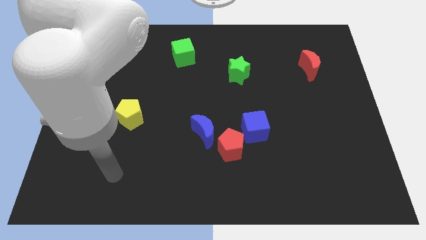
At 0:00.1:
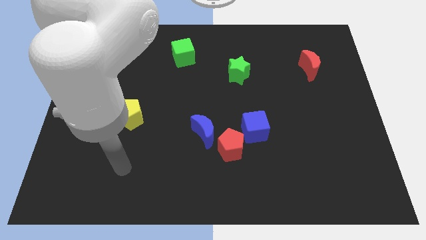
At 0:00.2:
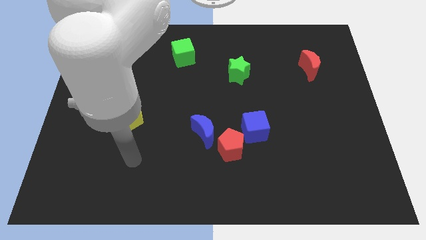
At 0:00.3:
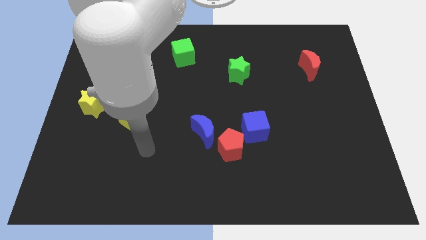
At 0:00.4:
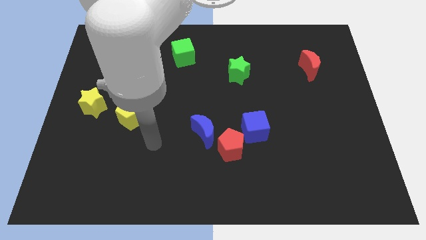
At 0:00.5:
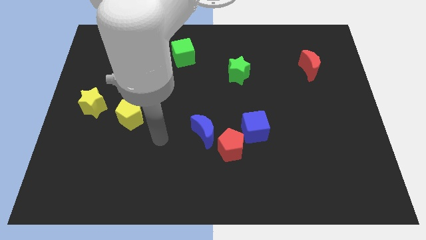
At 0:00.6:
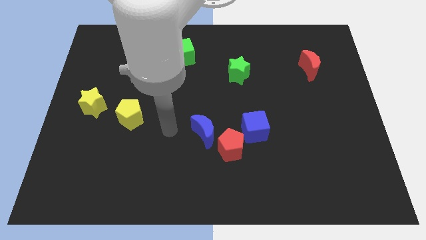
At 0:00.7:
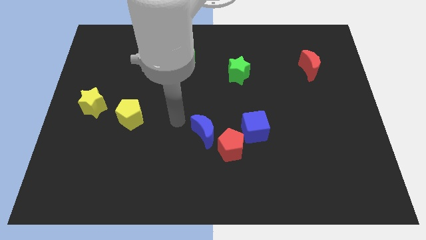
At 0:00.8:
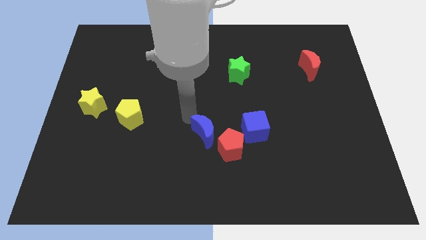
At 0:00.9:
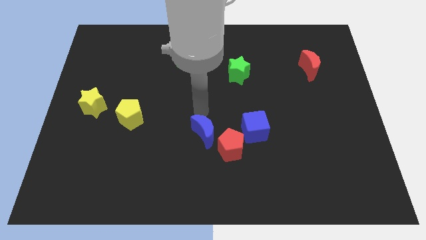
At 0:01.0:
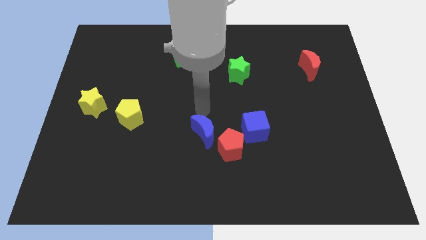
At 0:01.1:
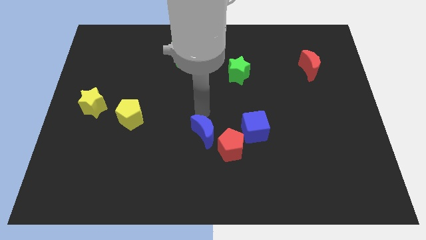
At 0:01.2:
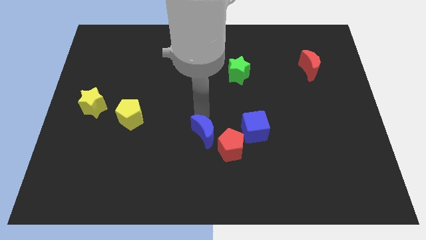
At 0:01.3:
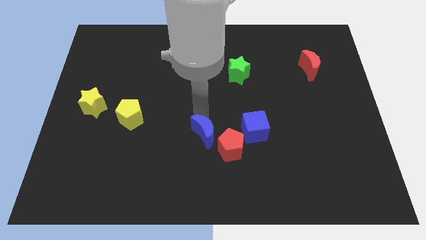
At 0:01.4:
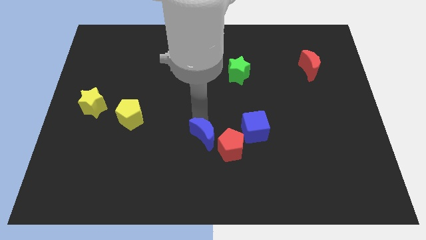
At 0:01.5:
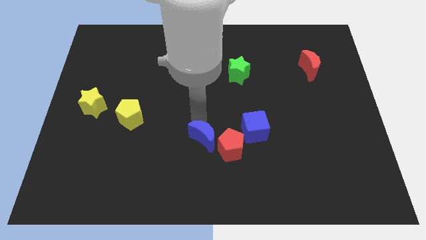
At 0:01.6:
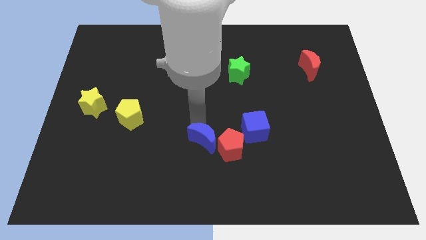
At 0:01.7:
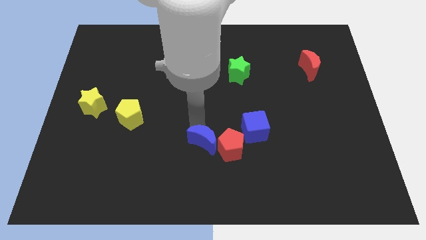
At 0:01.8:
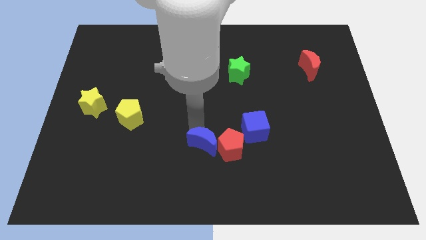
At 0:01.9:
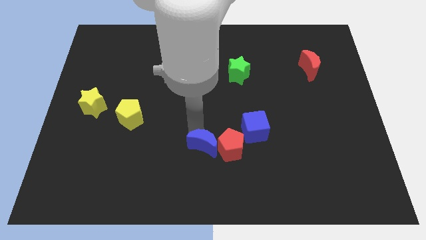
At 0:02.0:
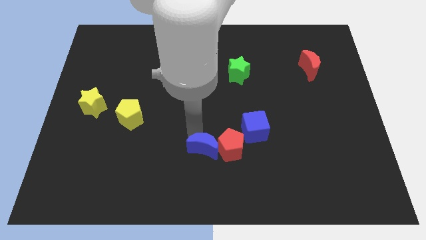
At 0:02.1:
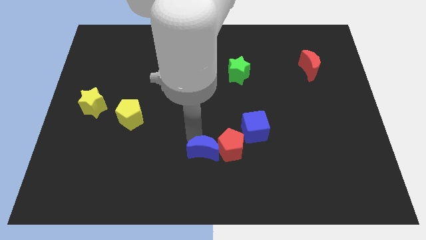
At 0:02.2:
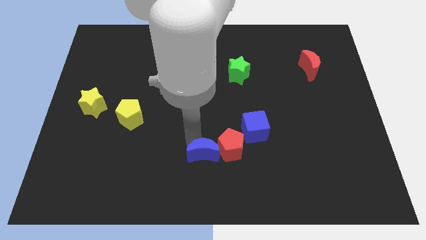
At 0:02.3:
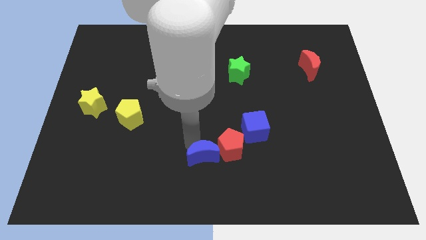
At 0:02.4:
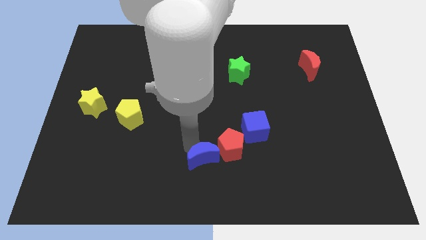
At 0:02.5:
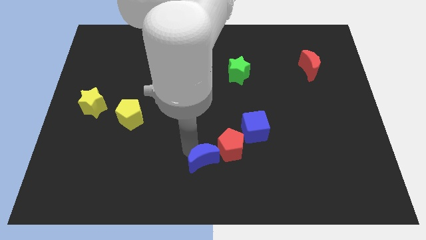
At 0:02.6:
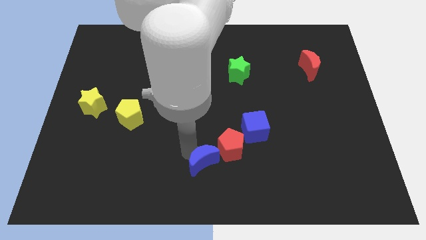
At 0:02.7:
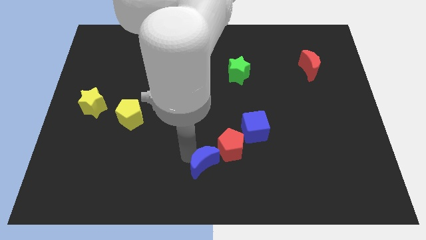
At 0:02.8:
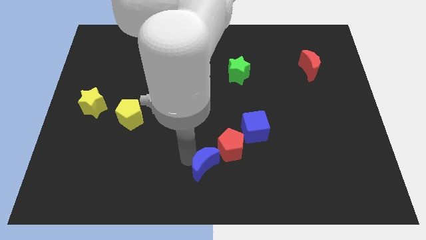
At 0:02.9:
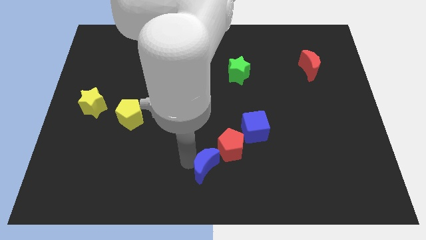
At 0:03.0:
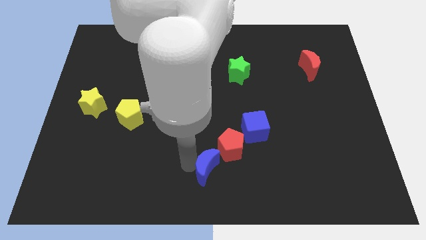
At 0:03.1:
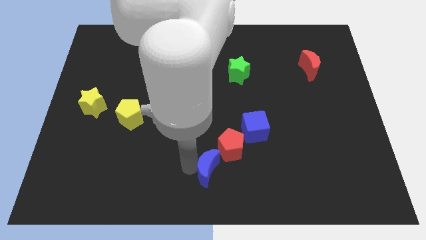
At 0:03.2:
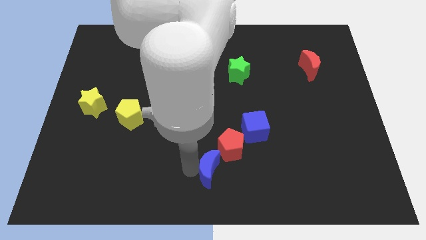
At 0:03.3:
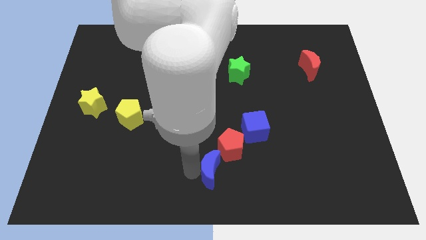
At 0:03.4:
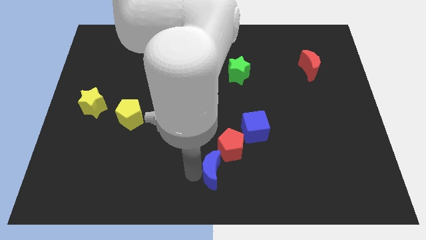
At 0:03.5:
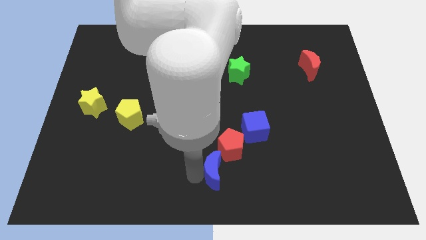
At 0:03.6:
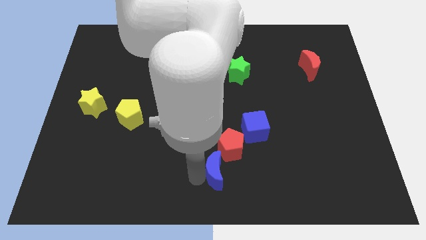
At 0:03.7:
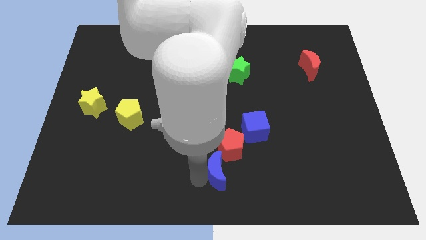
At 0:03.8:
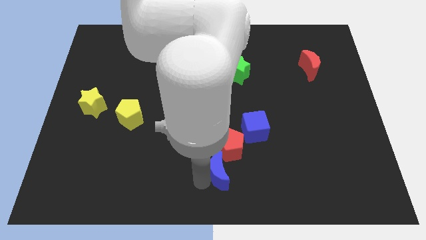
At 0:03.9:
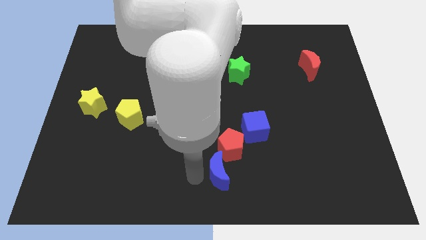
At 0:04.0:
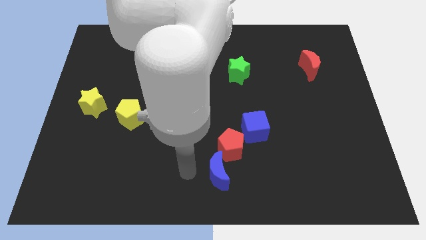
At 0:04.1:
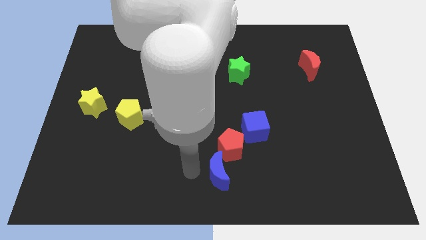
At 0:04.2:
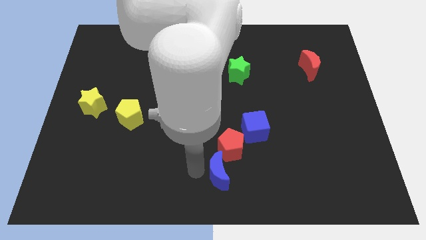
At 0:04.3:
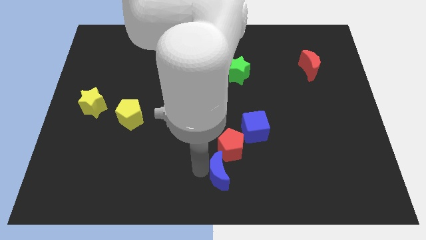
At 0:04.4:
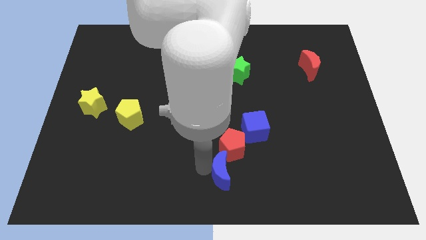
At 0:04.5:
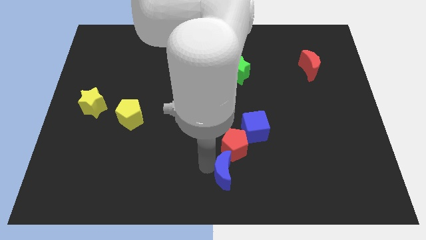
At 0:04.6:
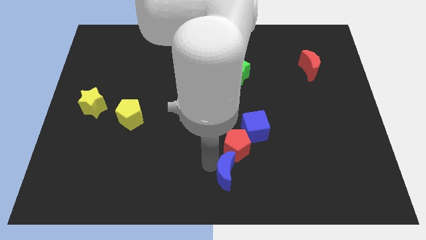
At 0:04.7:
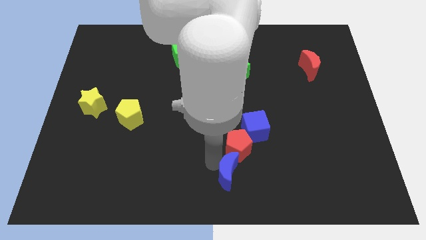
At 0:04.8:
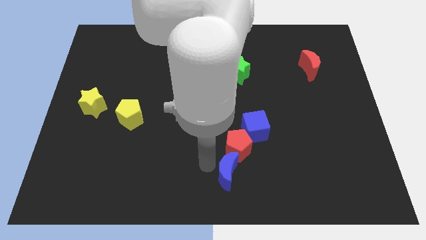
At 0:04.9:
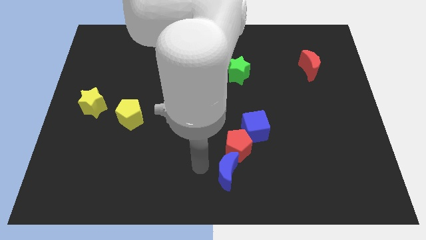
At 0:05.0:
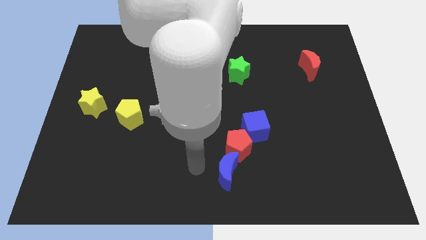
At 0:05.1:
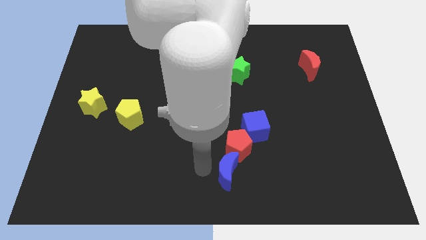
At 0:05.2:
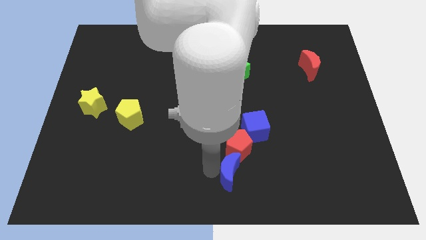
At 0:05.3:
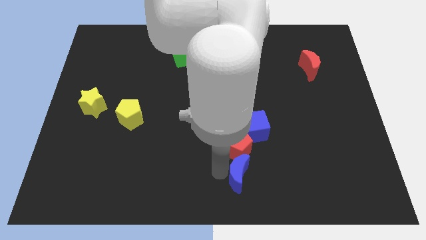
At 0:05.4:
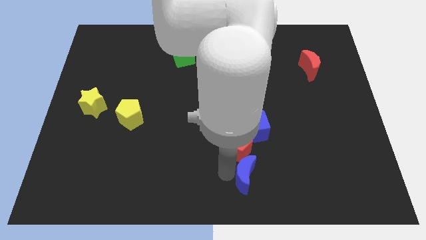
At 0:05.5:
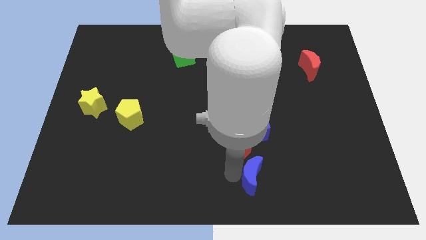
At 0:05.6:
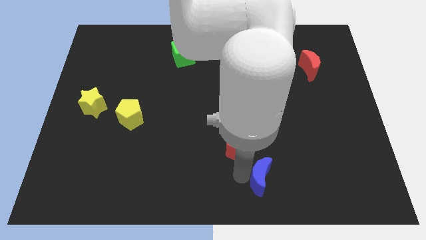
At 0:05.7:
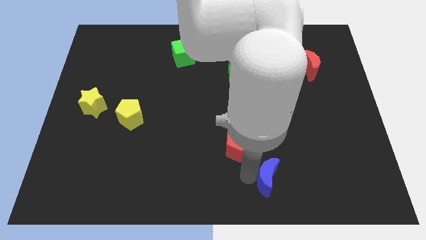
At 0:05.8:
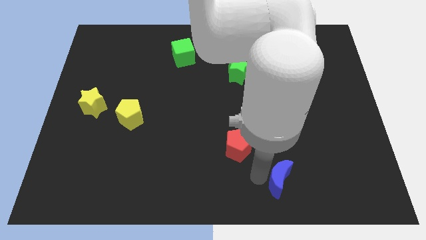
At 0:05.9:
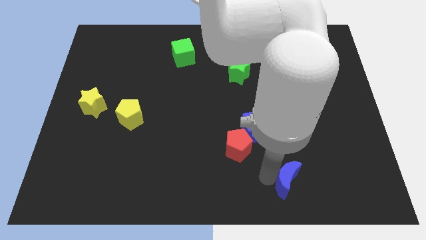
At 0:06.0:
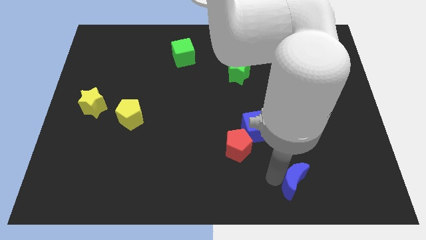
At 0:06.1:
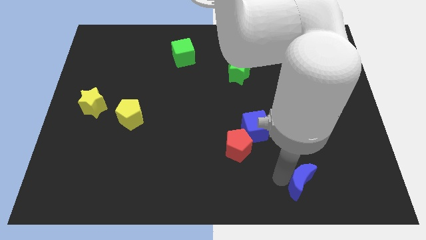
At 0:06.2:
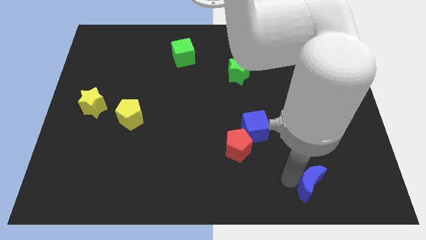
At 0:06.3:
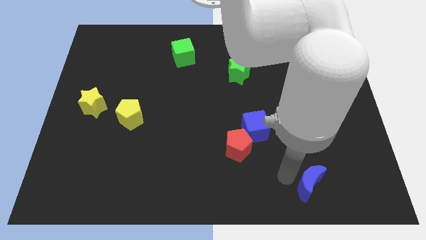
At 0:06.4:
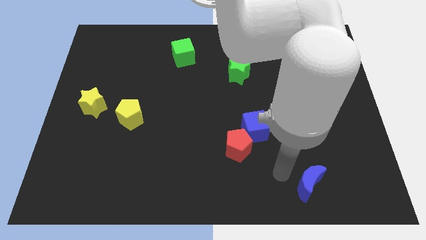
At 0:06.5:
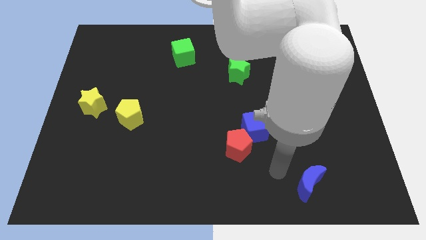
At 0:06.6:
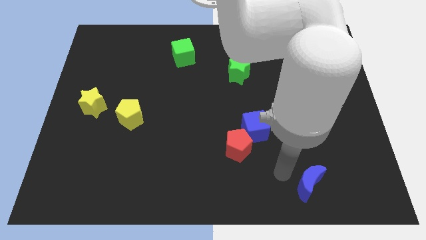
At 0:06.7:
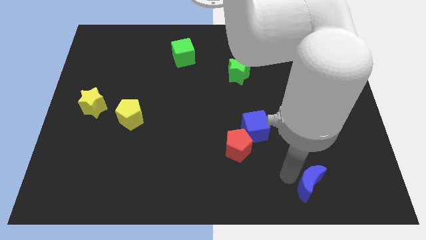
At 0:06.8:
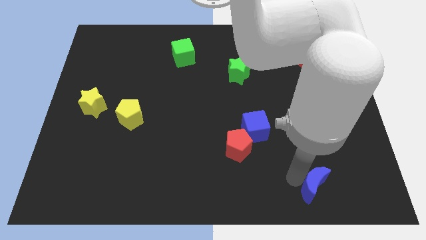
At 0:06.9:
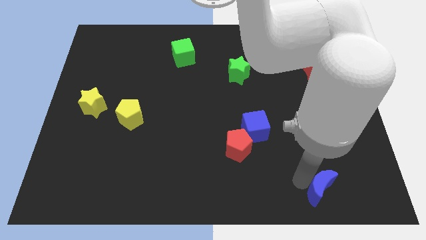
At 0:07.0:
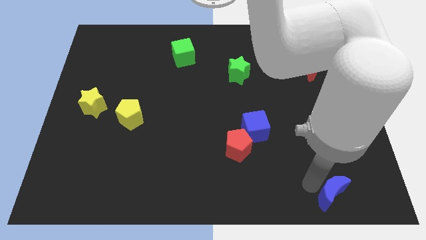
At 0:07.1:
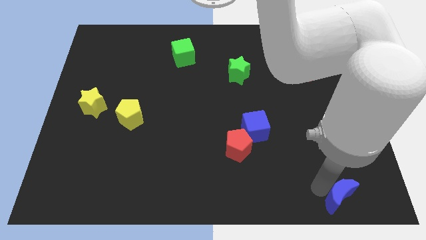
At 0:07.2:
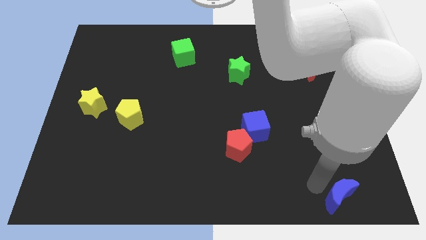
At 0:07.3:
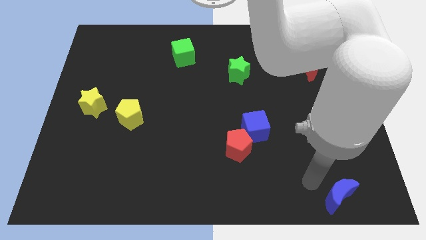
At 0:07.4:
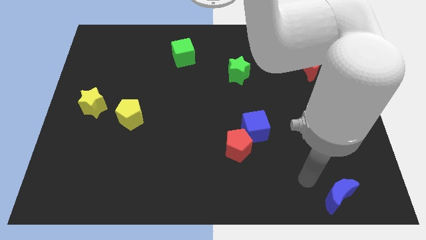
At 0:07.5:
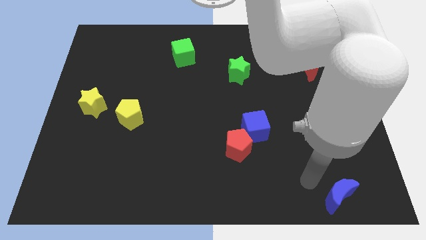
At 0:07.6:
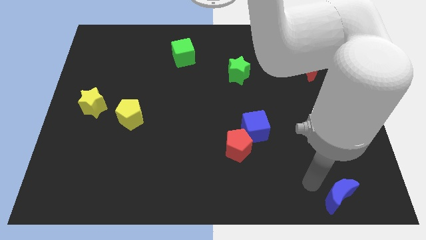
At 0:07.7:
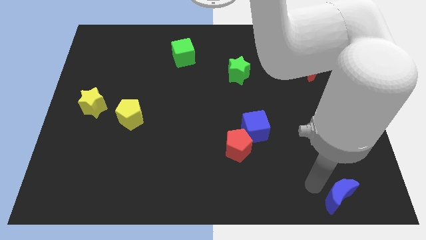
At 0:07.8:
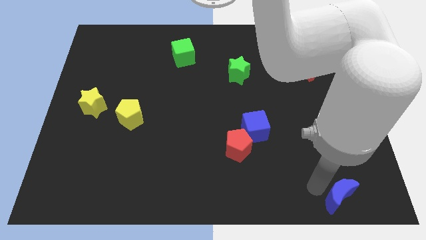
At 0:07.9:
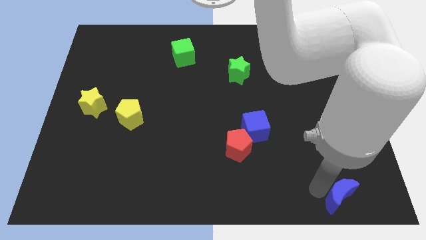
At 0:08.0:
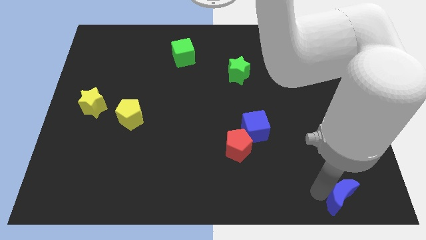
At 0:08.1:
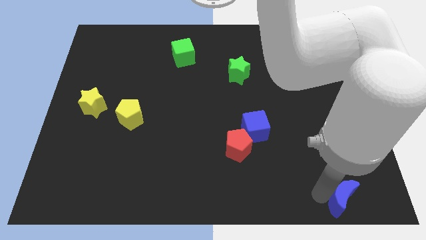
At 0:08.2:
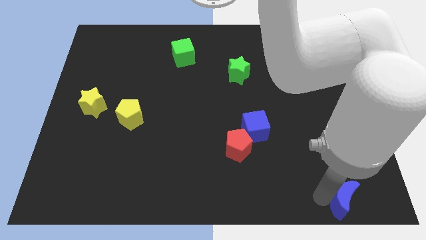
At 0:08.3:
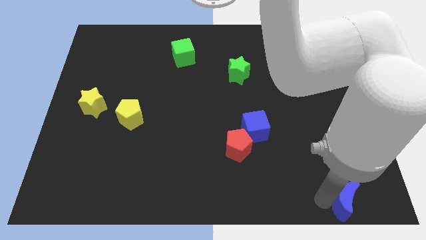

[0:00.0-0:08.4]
push the blue moon to the bottom right corner
